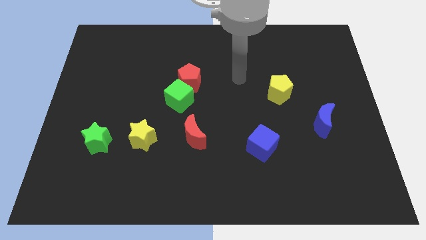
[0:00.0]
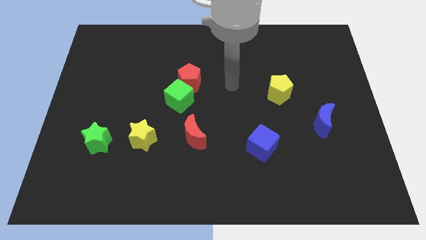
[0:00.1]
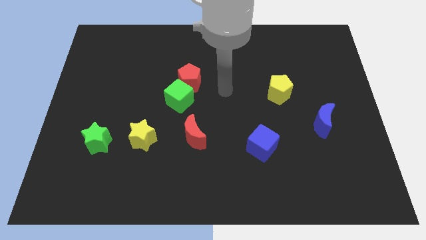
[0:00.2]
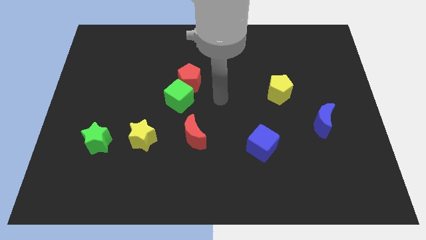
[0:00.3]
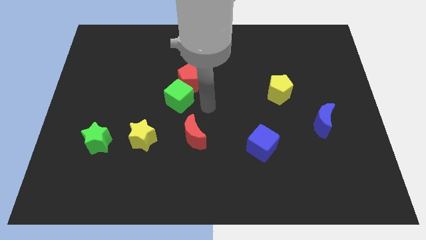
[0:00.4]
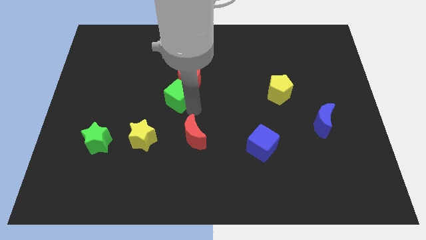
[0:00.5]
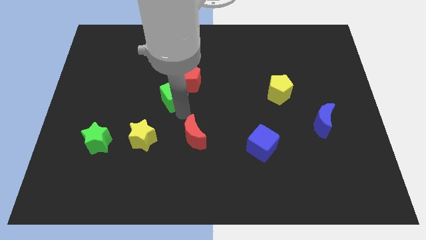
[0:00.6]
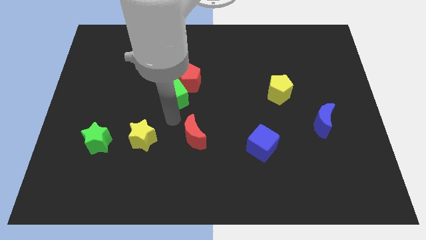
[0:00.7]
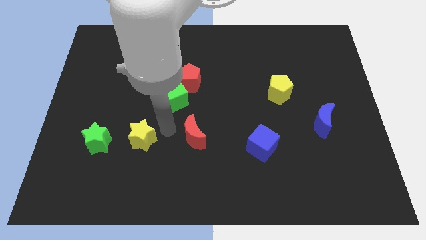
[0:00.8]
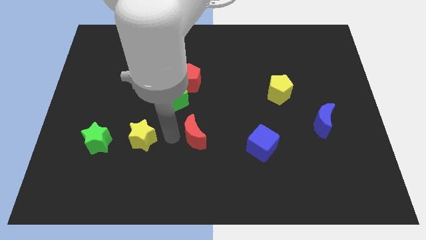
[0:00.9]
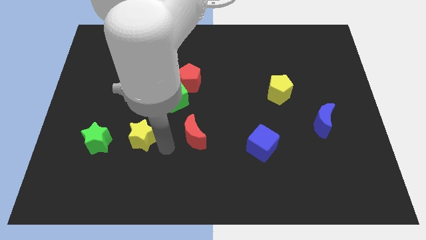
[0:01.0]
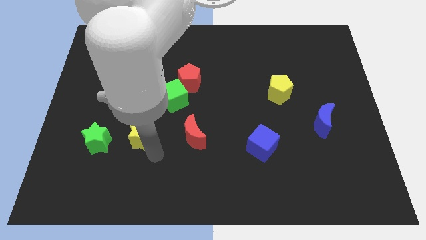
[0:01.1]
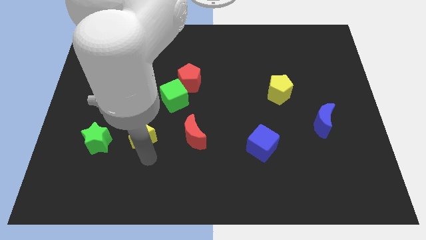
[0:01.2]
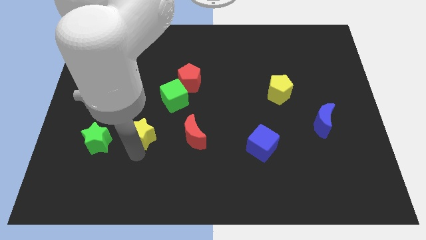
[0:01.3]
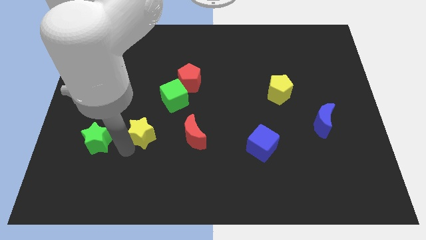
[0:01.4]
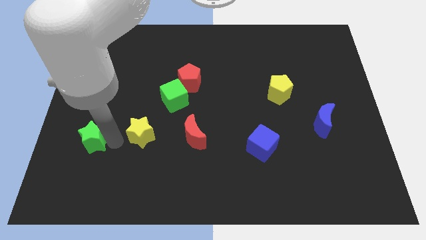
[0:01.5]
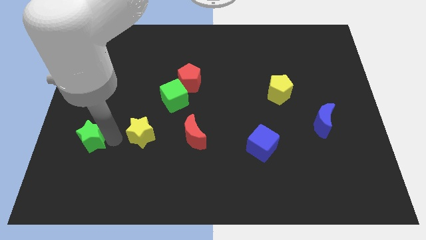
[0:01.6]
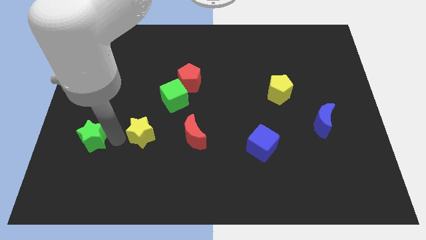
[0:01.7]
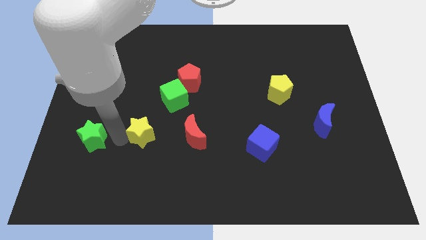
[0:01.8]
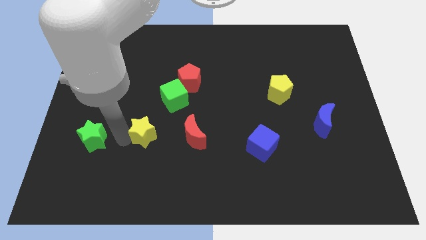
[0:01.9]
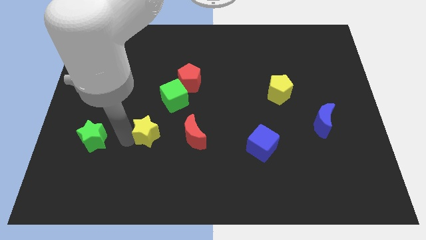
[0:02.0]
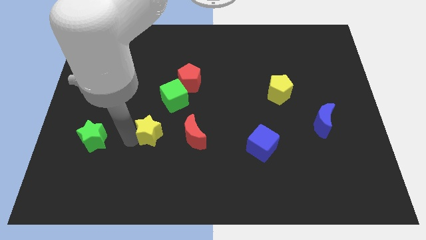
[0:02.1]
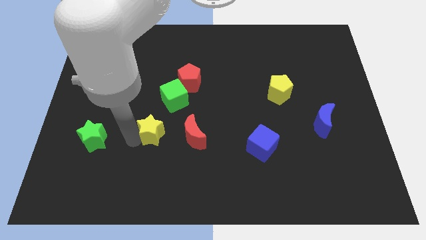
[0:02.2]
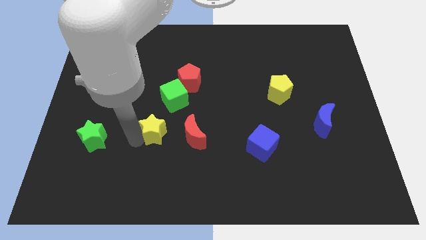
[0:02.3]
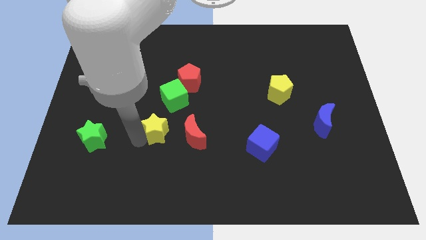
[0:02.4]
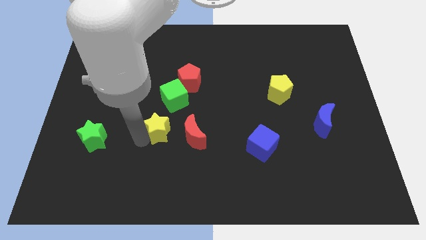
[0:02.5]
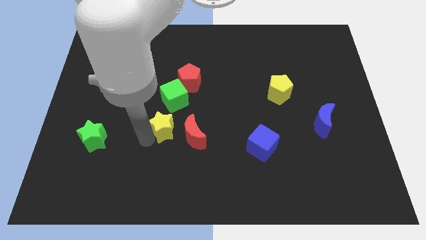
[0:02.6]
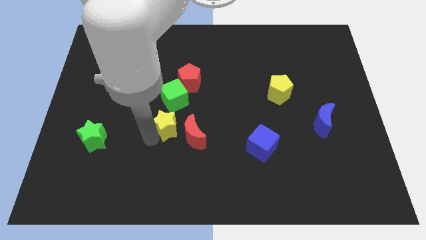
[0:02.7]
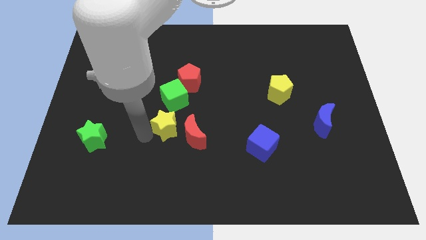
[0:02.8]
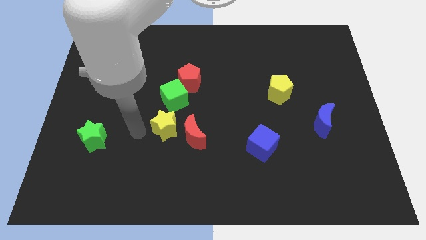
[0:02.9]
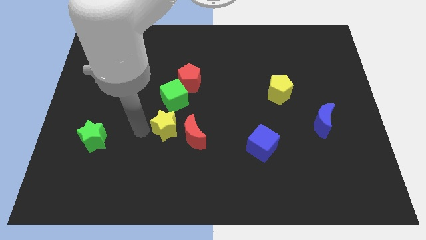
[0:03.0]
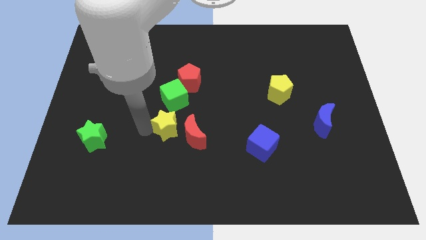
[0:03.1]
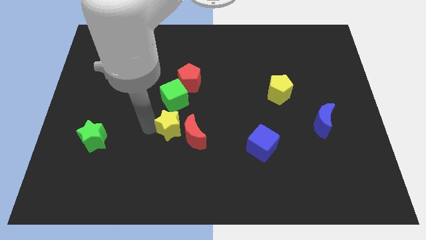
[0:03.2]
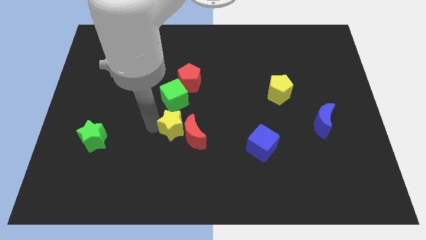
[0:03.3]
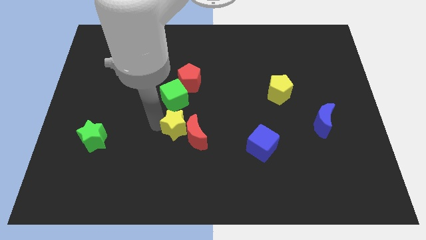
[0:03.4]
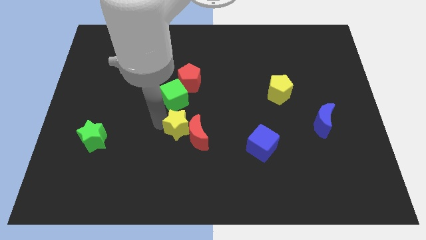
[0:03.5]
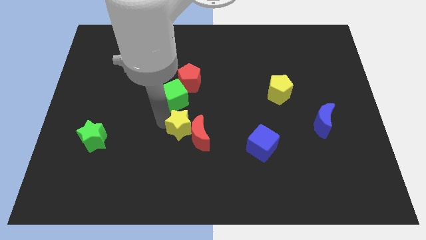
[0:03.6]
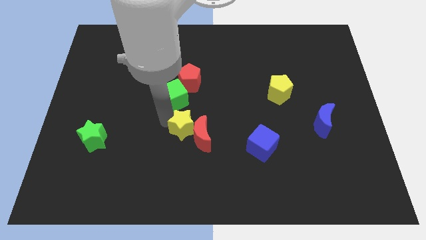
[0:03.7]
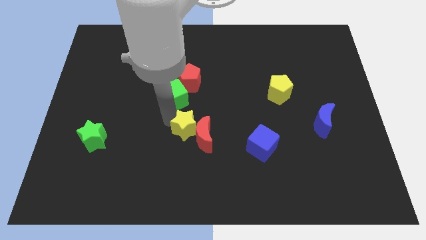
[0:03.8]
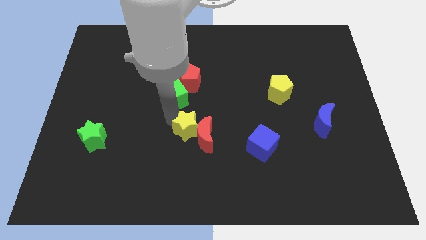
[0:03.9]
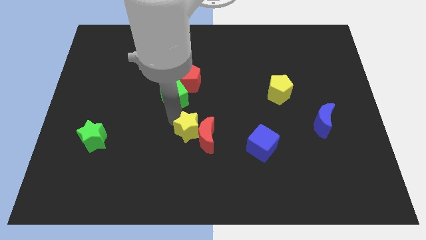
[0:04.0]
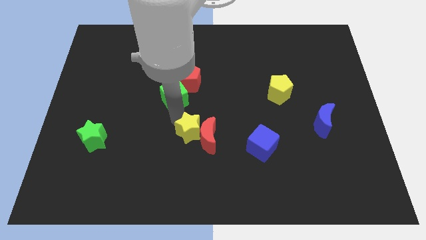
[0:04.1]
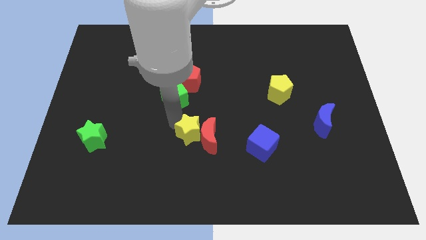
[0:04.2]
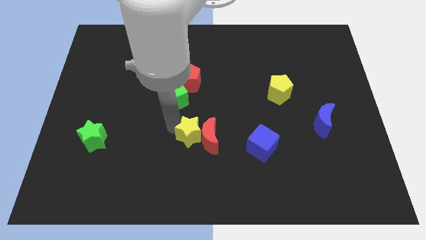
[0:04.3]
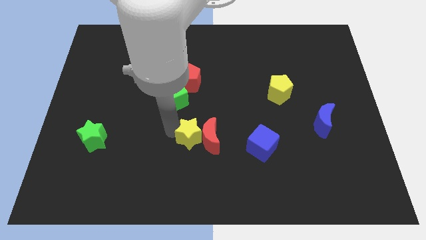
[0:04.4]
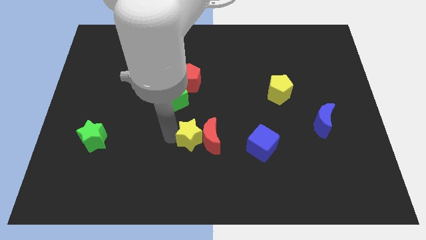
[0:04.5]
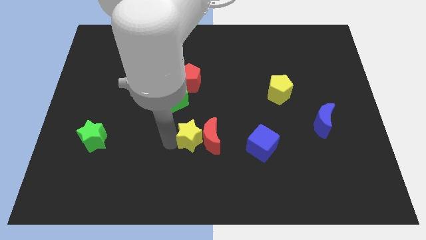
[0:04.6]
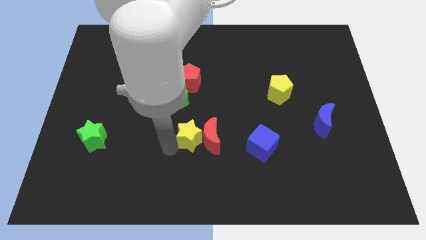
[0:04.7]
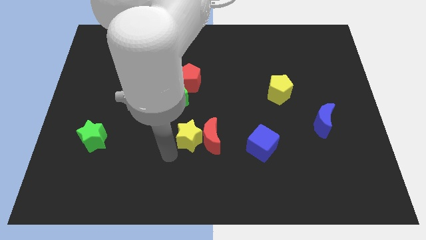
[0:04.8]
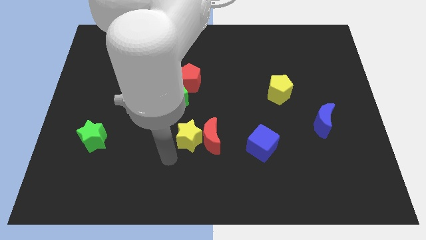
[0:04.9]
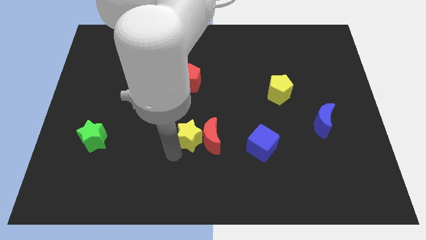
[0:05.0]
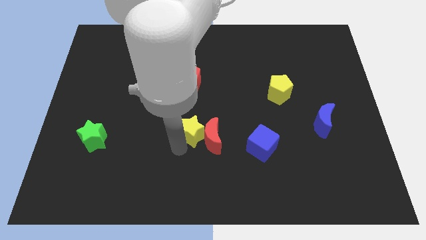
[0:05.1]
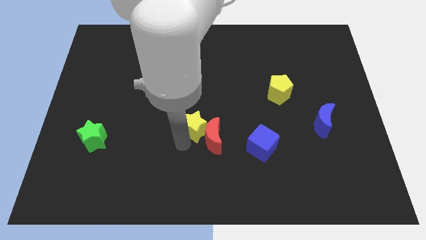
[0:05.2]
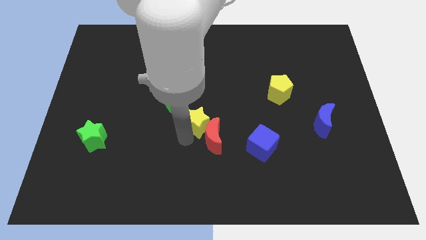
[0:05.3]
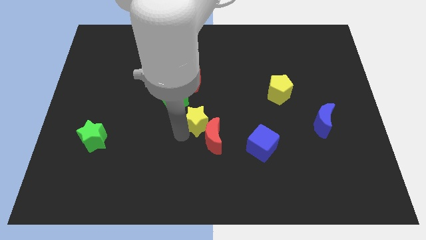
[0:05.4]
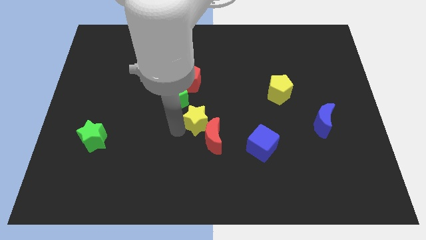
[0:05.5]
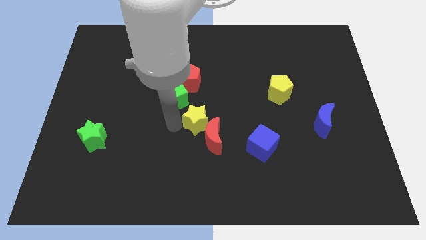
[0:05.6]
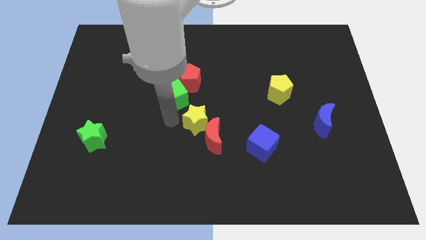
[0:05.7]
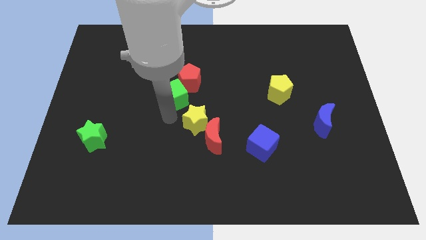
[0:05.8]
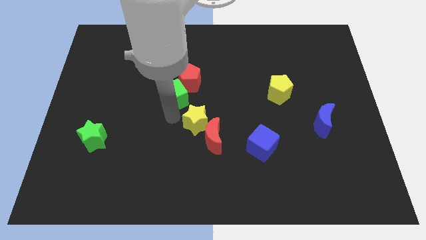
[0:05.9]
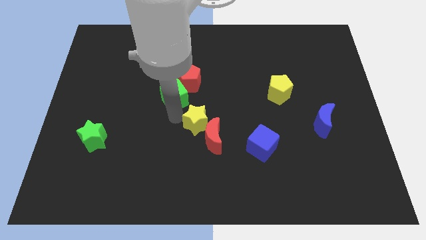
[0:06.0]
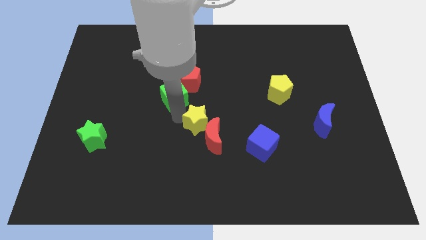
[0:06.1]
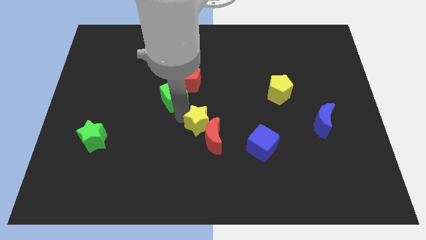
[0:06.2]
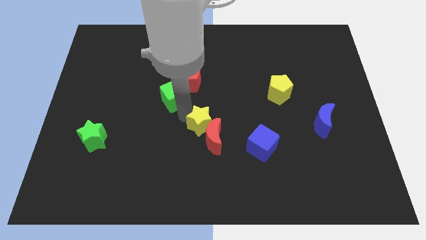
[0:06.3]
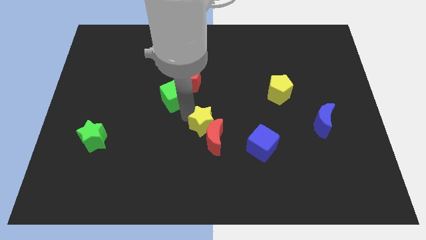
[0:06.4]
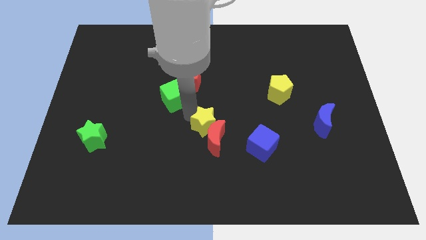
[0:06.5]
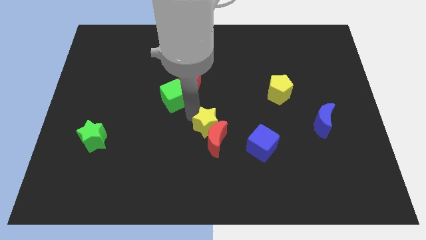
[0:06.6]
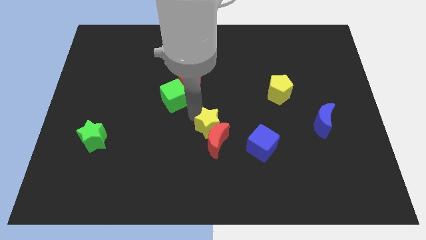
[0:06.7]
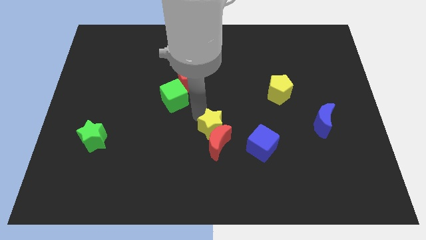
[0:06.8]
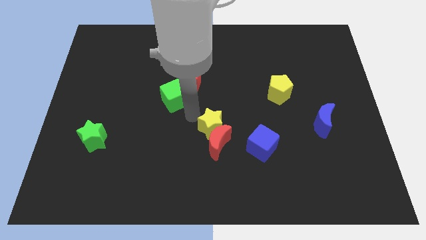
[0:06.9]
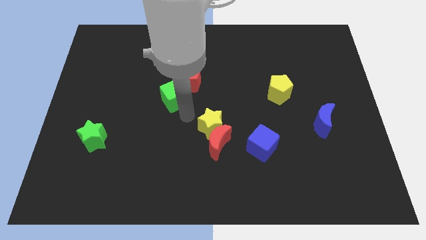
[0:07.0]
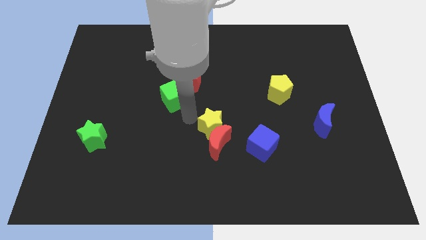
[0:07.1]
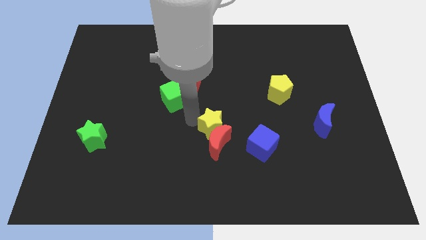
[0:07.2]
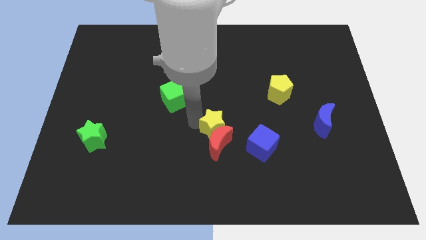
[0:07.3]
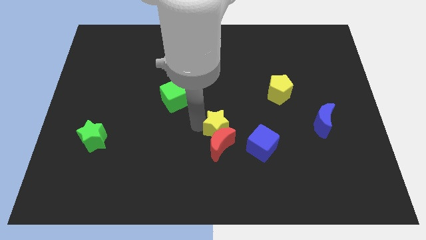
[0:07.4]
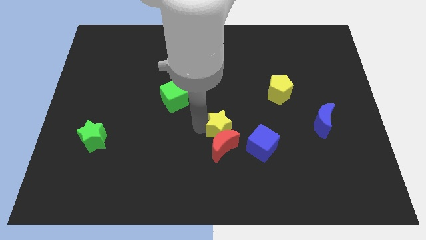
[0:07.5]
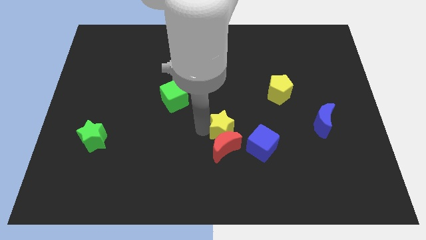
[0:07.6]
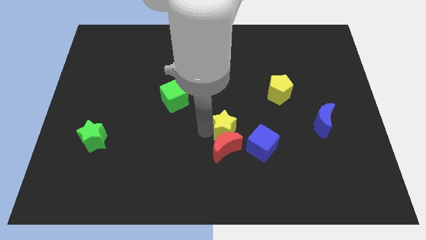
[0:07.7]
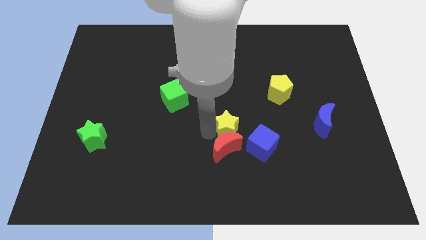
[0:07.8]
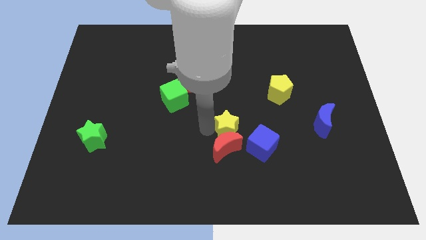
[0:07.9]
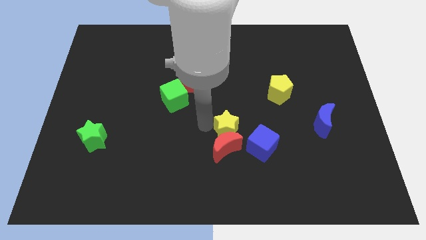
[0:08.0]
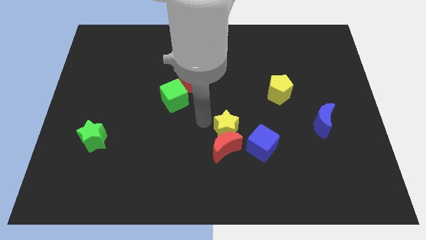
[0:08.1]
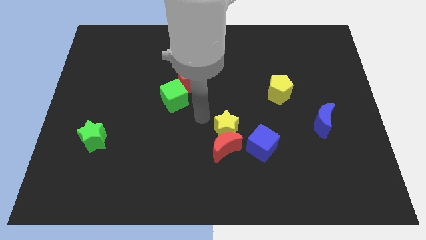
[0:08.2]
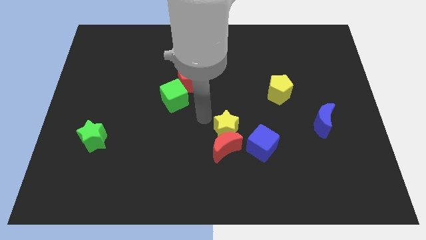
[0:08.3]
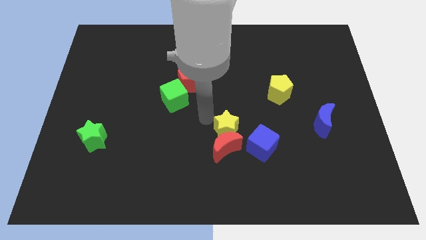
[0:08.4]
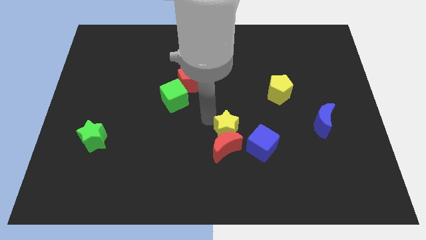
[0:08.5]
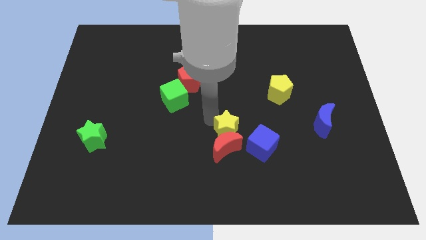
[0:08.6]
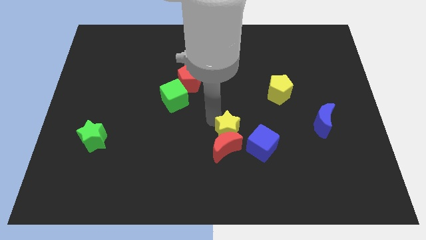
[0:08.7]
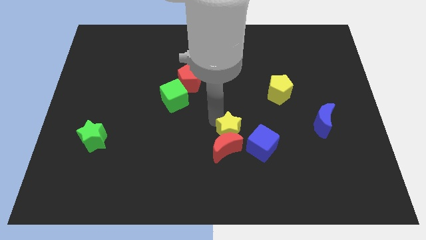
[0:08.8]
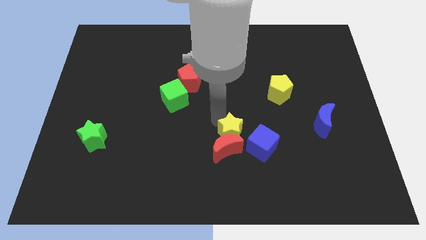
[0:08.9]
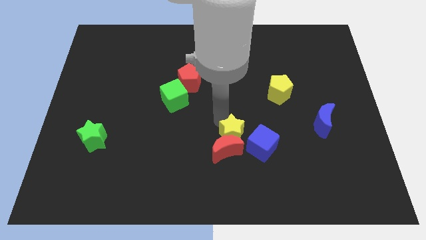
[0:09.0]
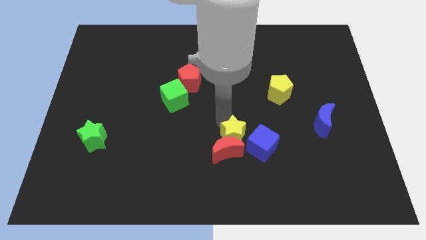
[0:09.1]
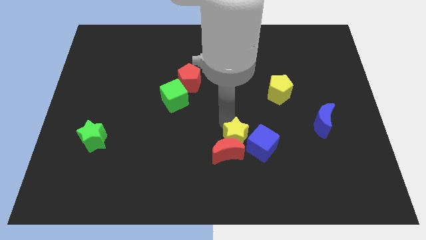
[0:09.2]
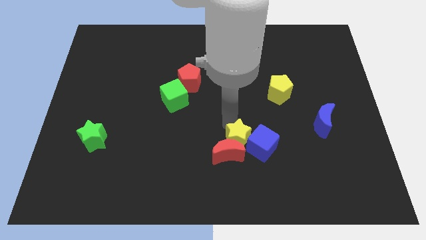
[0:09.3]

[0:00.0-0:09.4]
push the yellow star next to the blue cube
